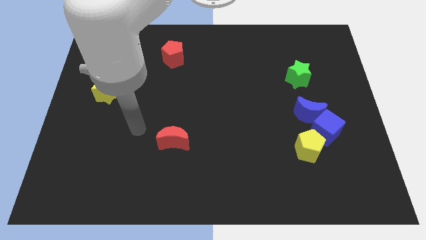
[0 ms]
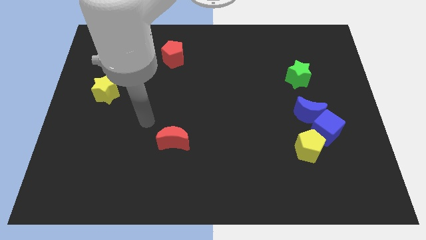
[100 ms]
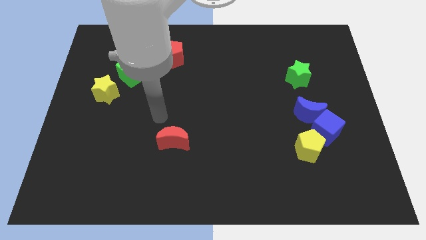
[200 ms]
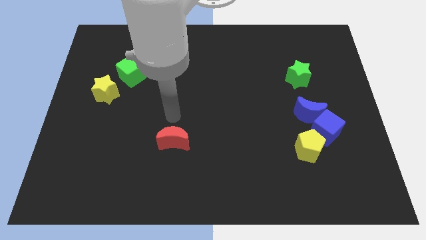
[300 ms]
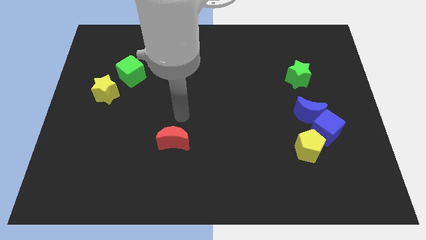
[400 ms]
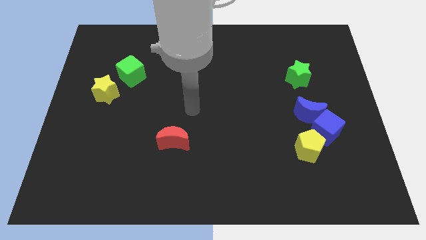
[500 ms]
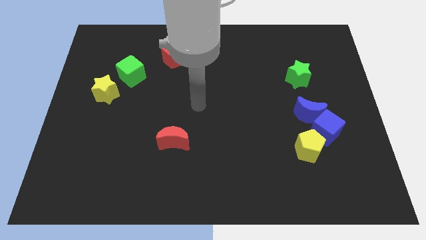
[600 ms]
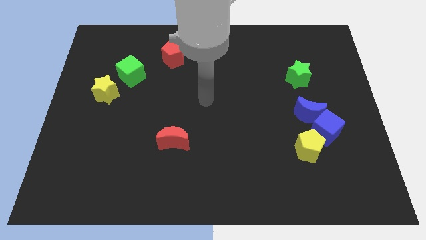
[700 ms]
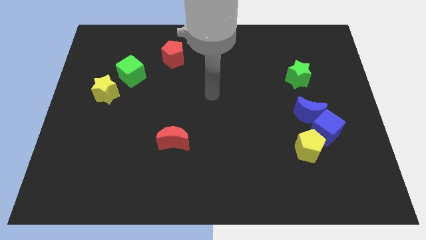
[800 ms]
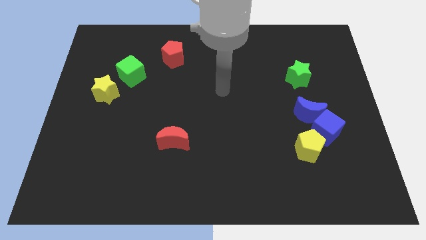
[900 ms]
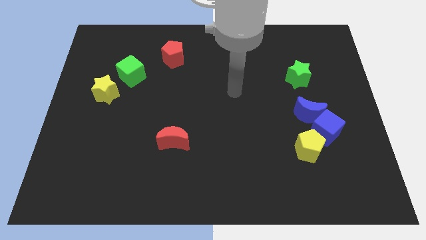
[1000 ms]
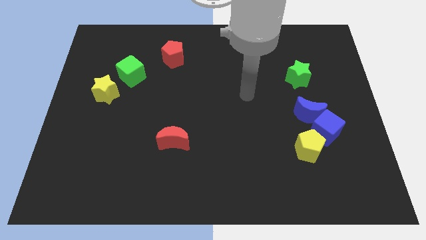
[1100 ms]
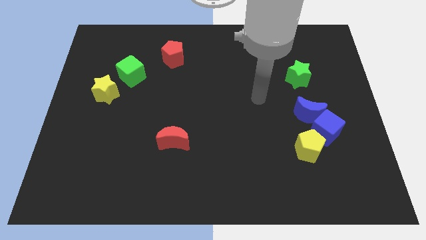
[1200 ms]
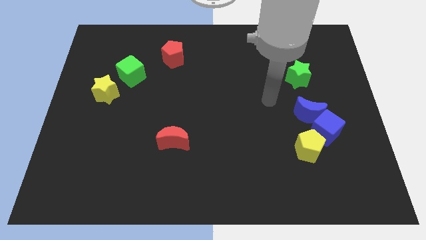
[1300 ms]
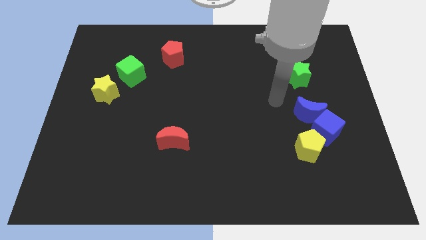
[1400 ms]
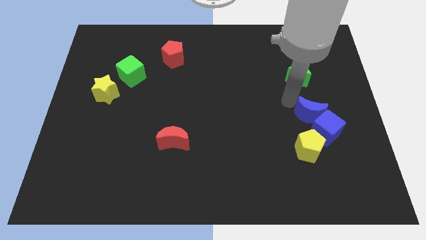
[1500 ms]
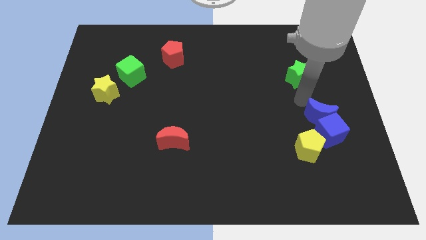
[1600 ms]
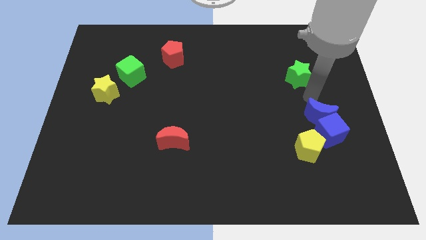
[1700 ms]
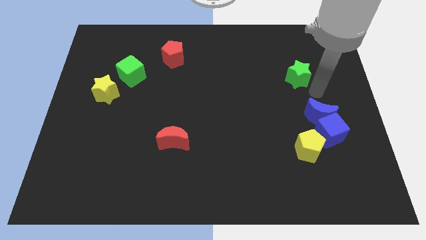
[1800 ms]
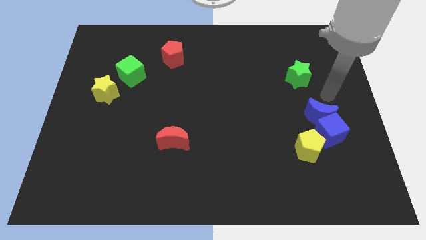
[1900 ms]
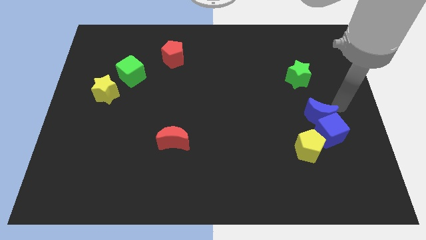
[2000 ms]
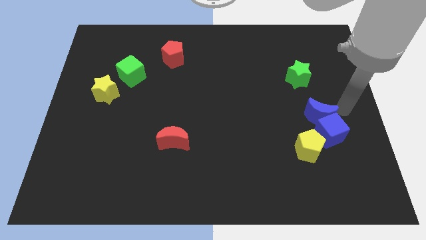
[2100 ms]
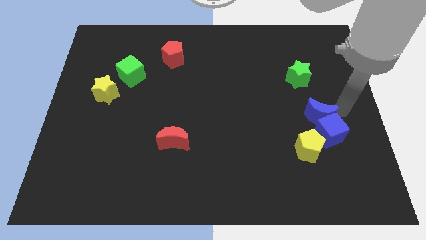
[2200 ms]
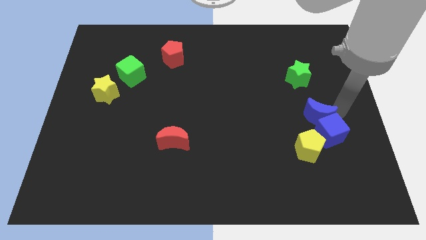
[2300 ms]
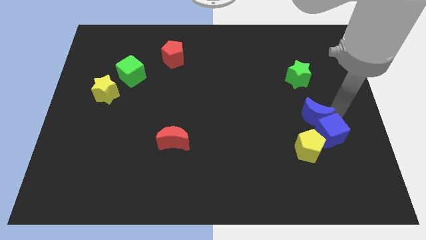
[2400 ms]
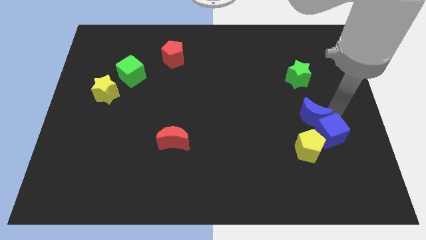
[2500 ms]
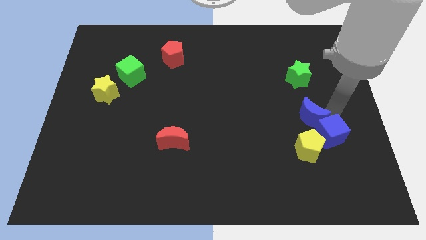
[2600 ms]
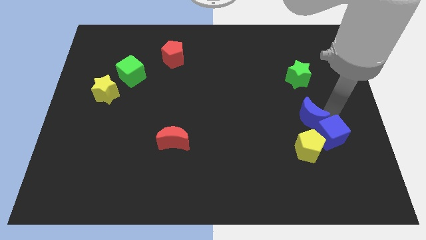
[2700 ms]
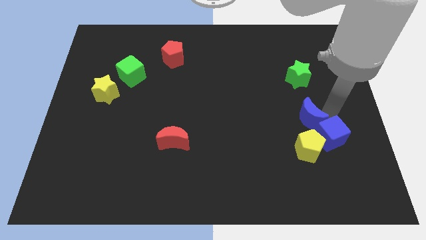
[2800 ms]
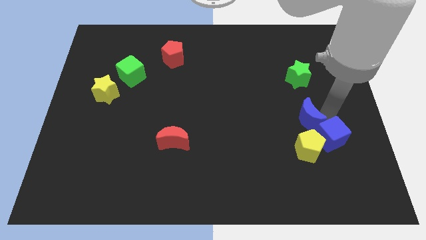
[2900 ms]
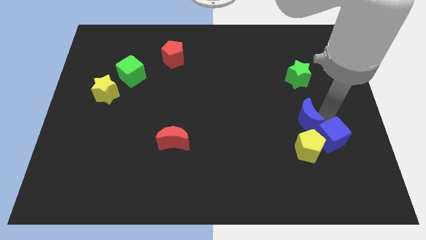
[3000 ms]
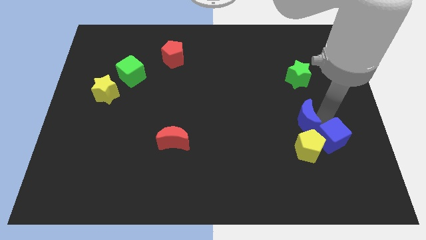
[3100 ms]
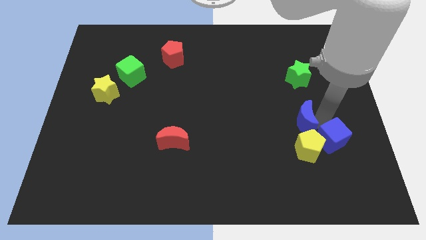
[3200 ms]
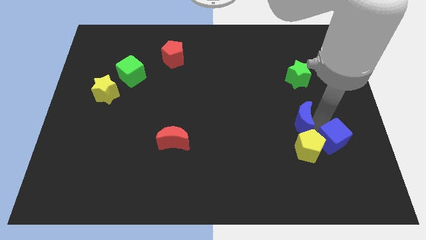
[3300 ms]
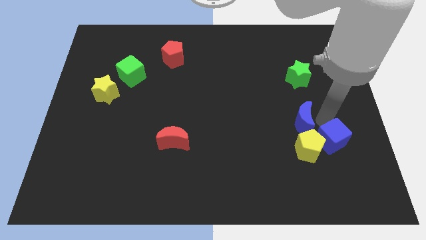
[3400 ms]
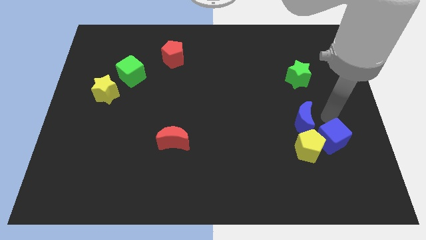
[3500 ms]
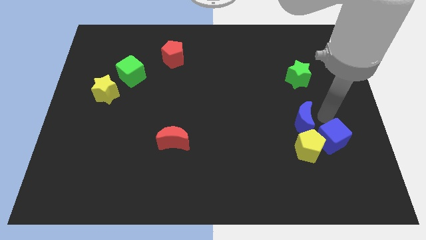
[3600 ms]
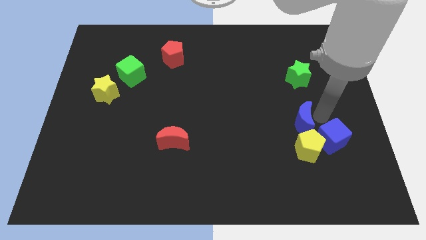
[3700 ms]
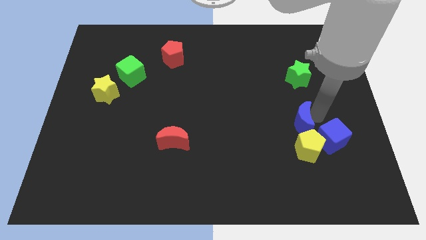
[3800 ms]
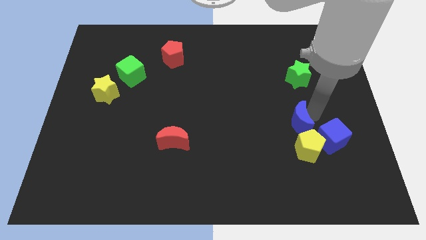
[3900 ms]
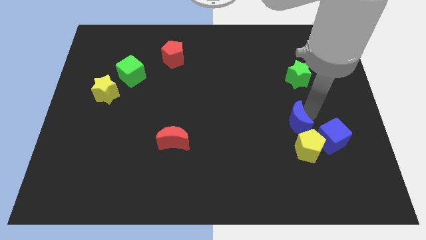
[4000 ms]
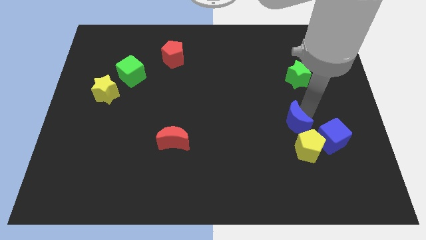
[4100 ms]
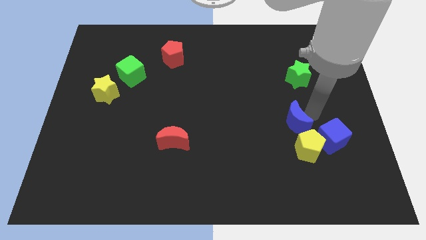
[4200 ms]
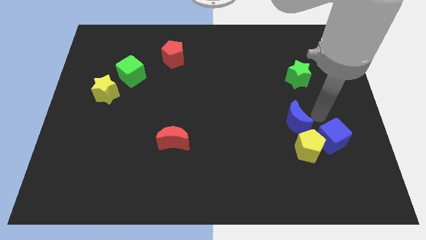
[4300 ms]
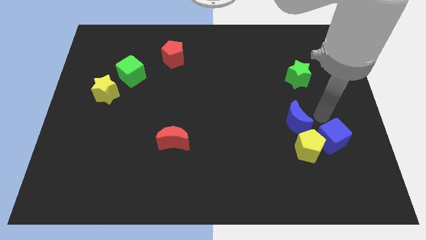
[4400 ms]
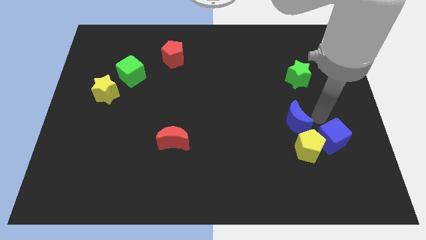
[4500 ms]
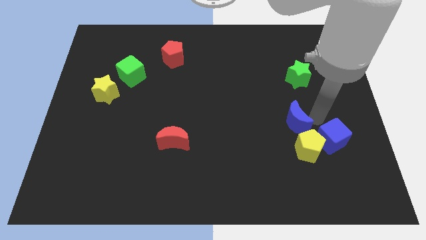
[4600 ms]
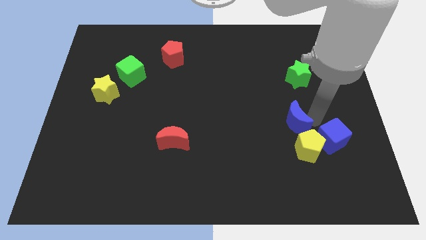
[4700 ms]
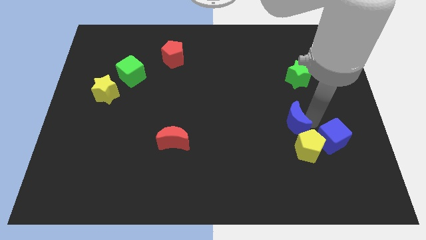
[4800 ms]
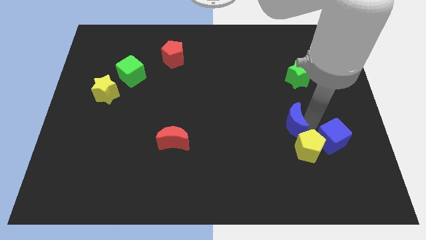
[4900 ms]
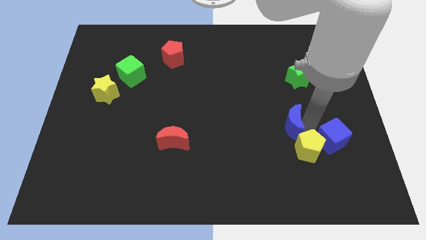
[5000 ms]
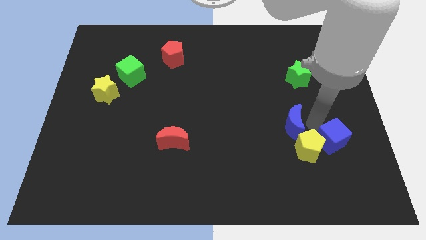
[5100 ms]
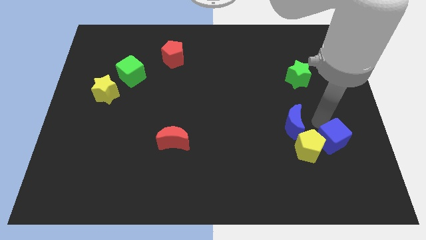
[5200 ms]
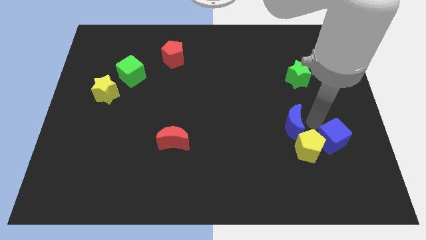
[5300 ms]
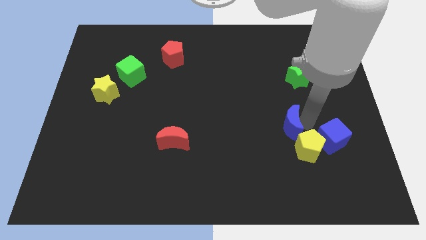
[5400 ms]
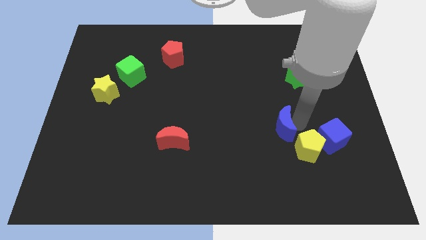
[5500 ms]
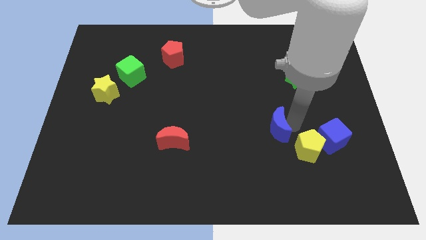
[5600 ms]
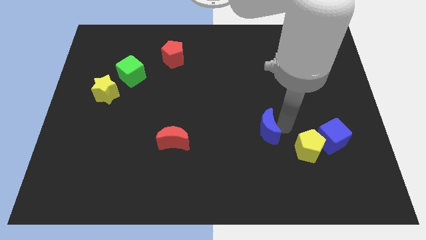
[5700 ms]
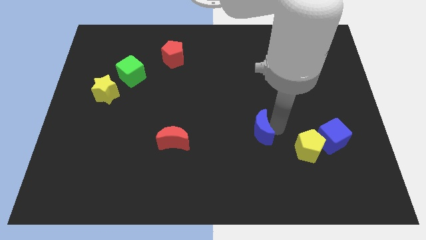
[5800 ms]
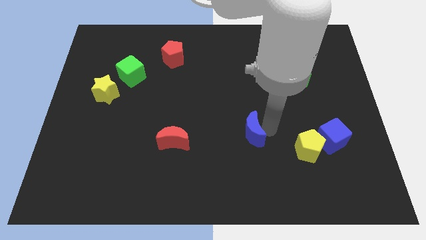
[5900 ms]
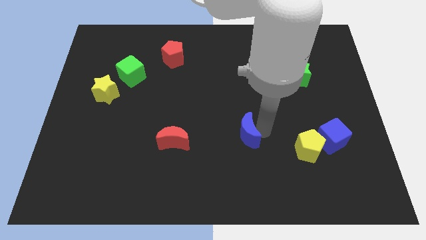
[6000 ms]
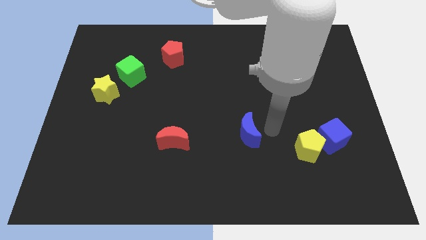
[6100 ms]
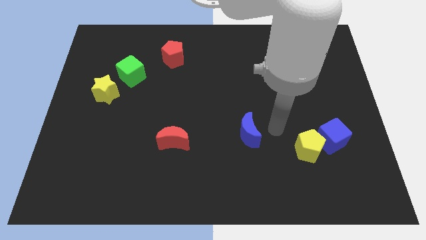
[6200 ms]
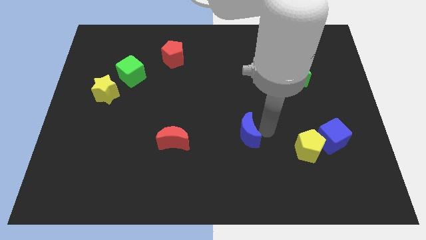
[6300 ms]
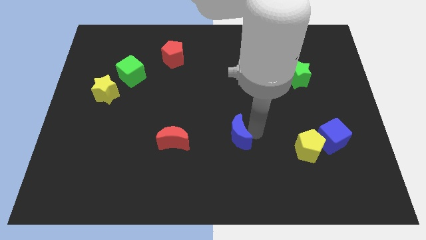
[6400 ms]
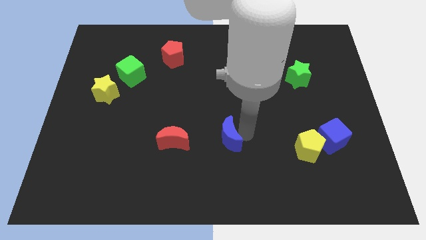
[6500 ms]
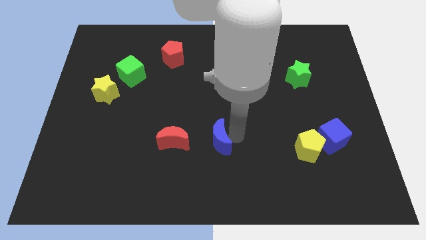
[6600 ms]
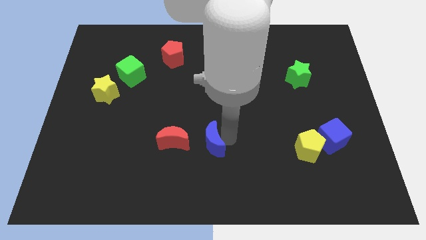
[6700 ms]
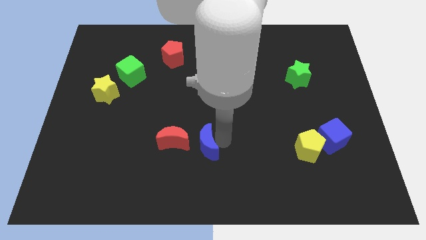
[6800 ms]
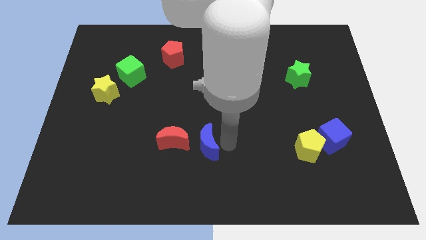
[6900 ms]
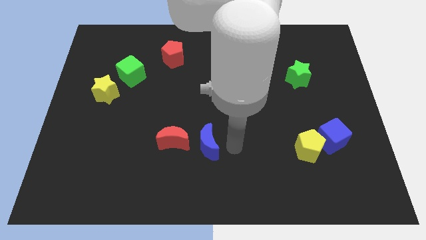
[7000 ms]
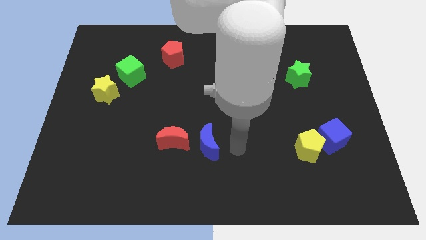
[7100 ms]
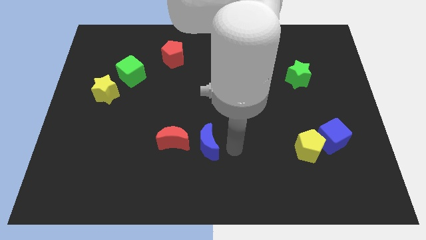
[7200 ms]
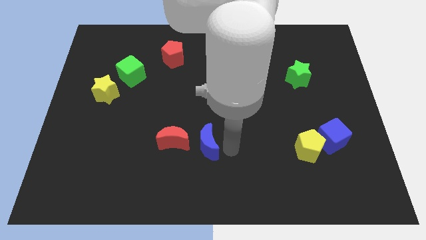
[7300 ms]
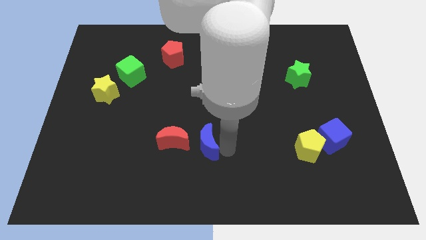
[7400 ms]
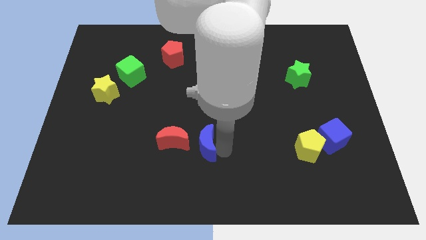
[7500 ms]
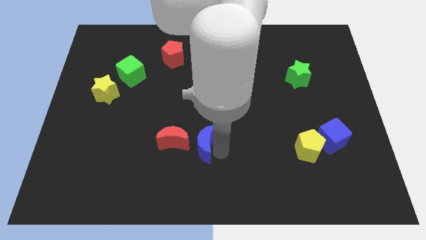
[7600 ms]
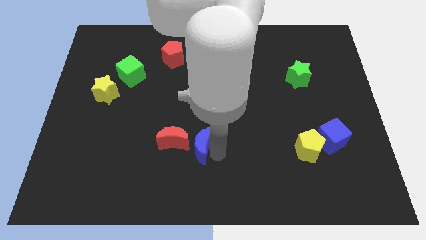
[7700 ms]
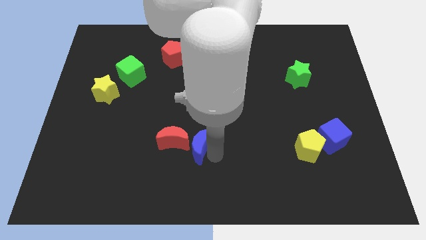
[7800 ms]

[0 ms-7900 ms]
slide the blue moon towards the red moon
